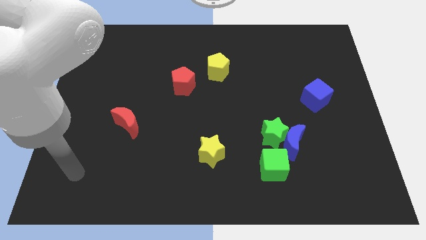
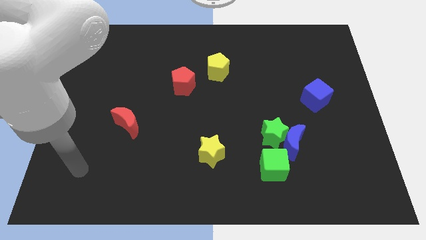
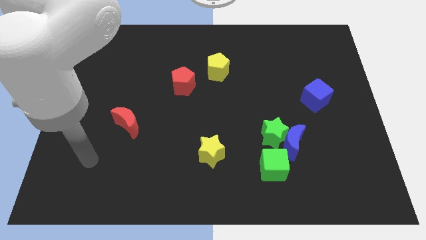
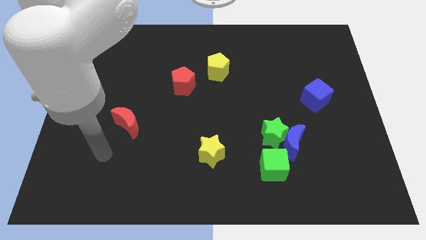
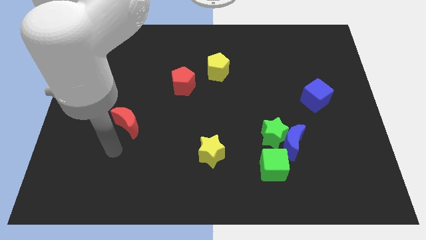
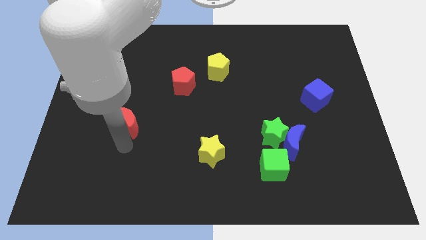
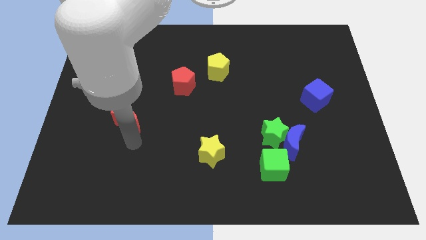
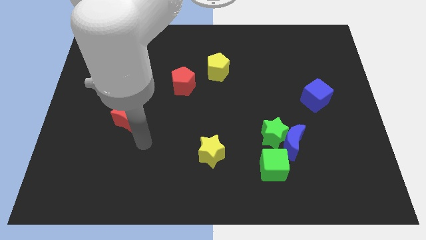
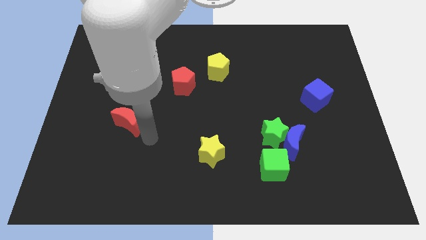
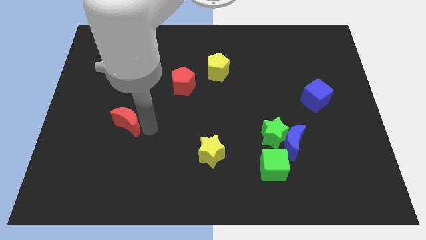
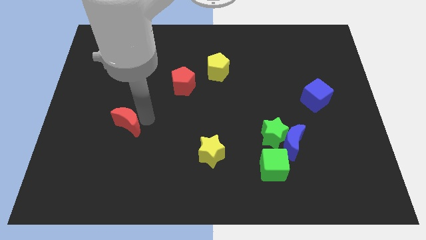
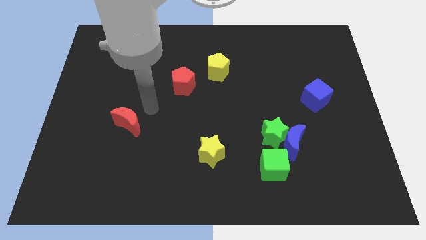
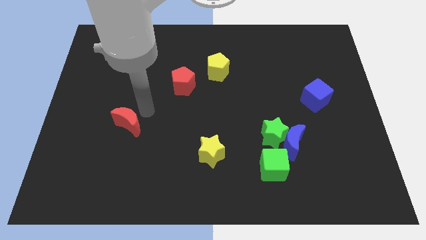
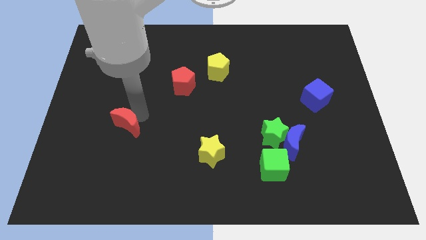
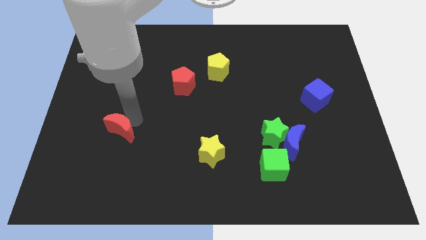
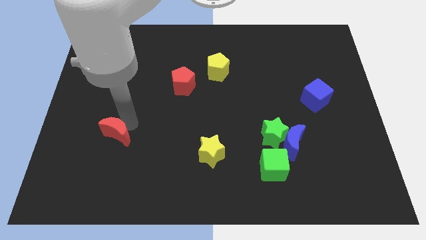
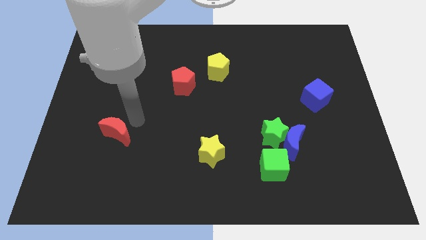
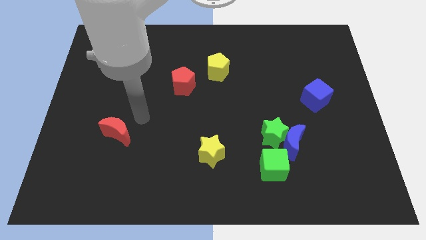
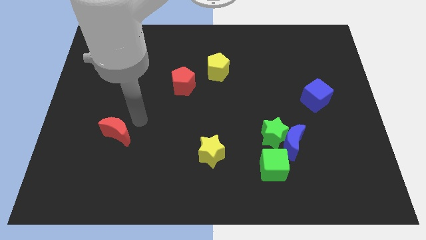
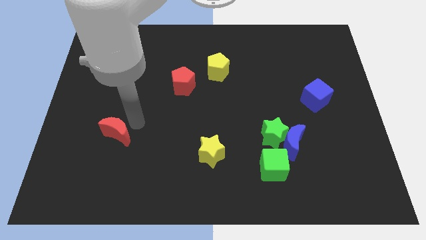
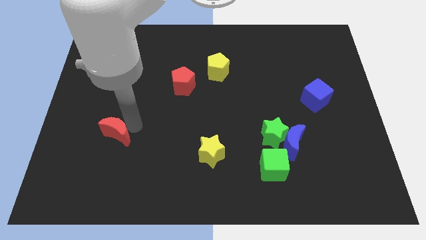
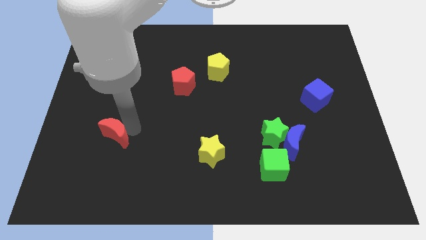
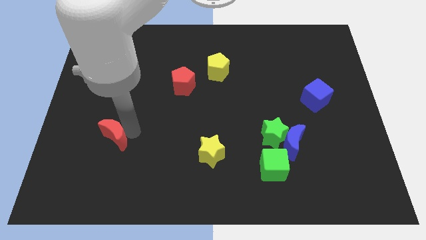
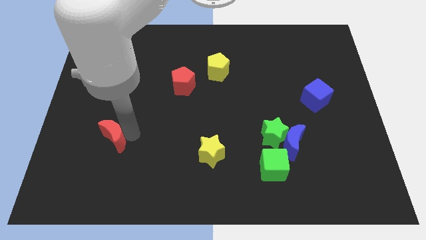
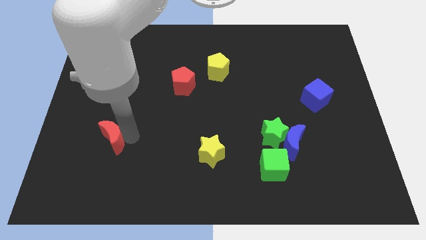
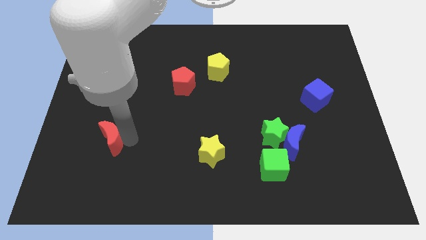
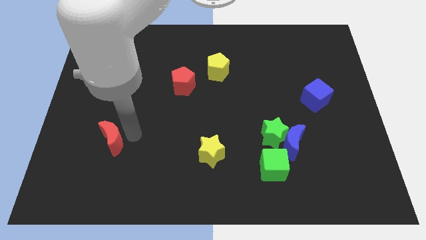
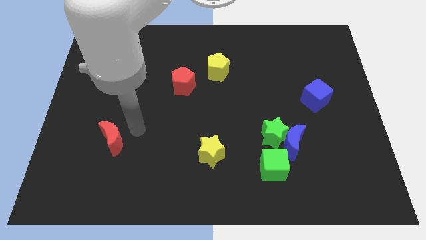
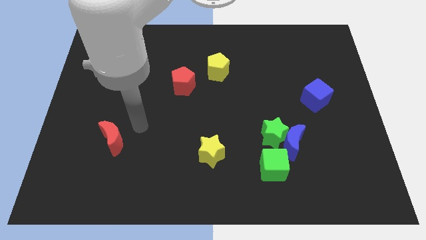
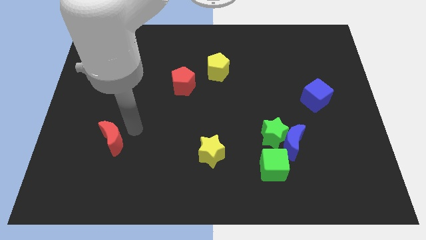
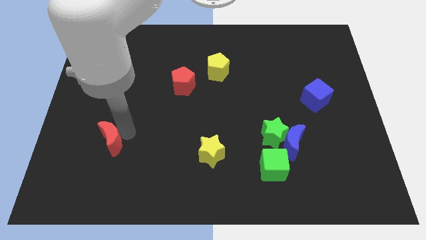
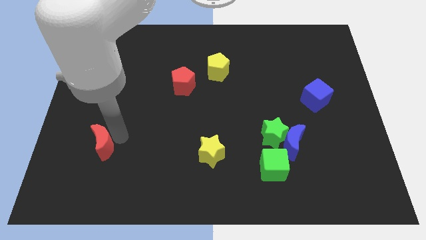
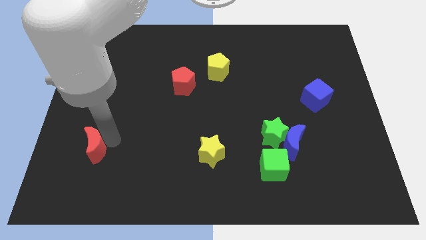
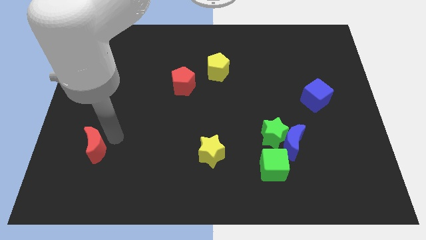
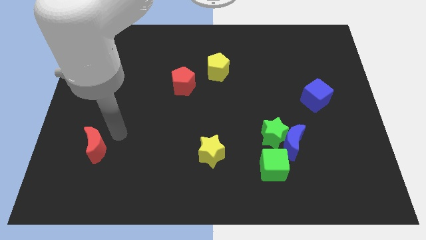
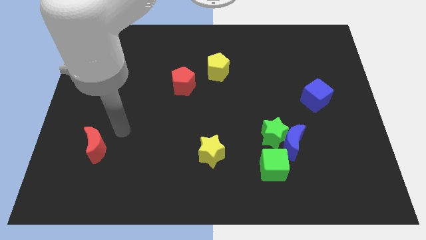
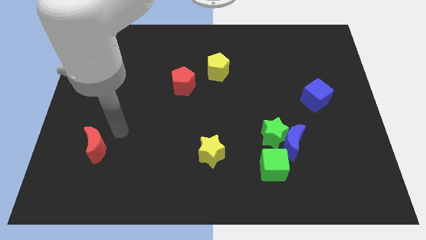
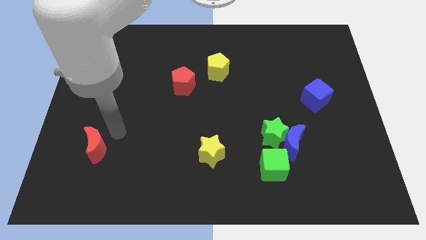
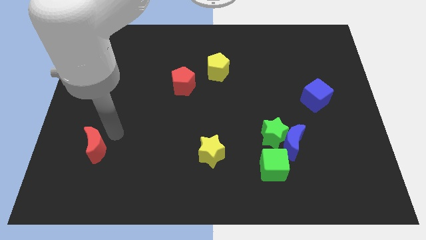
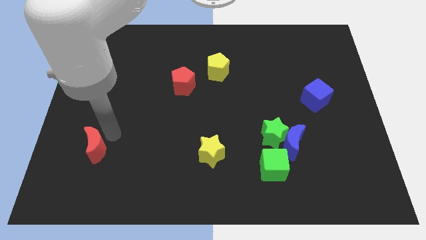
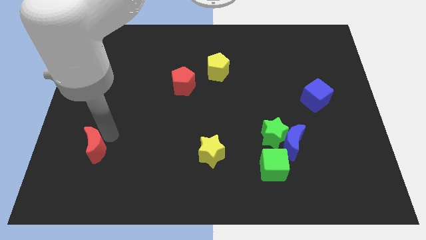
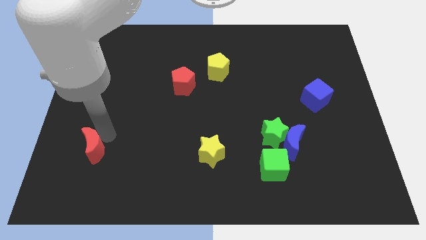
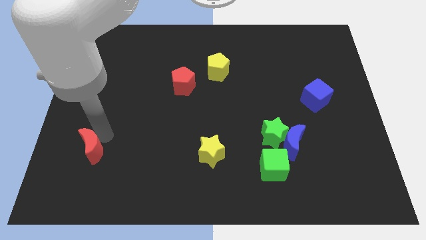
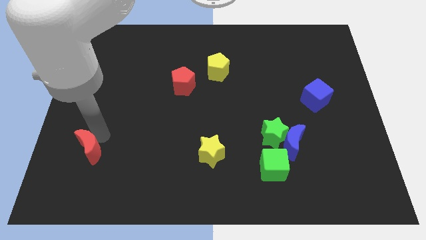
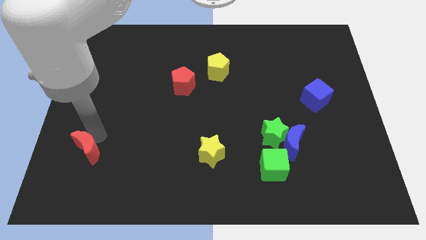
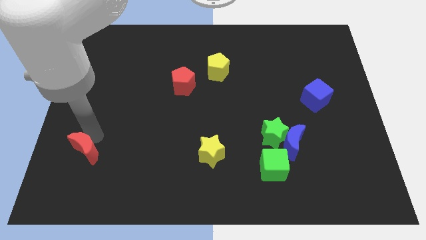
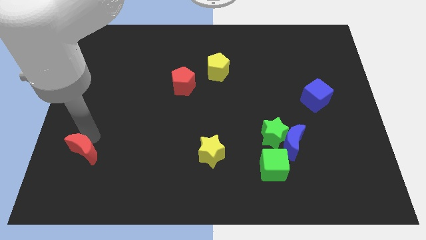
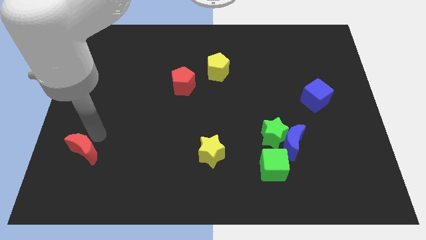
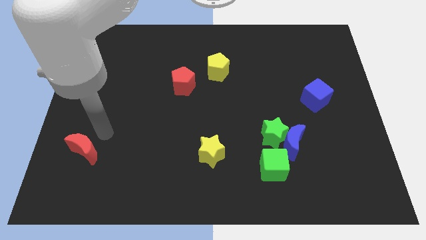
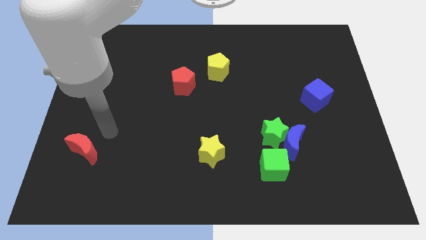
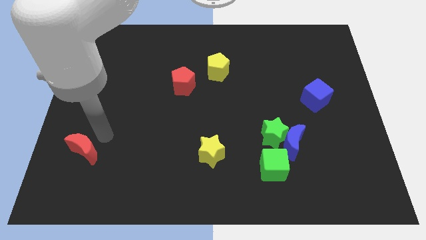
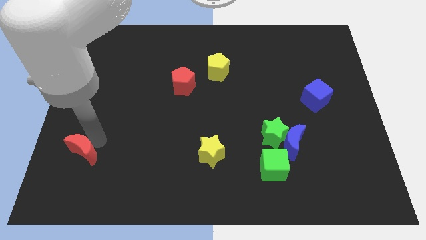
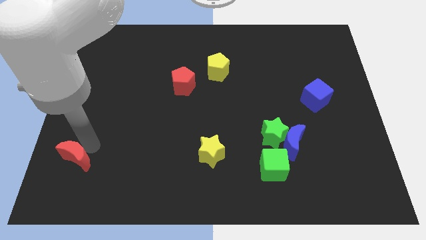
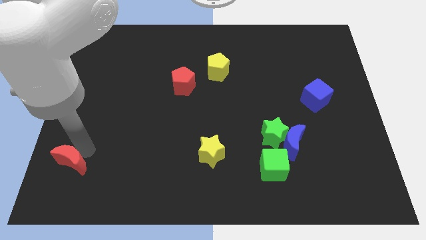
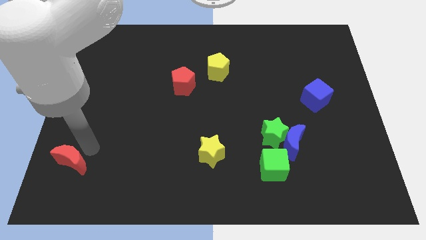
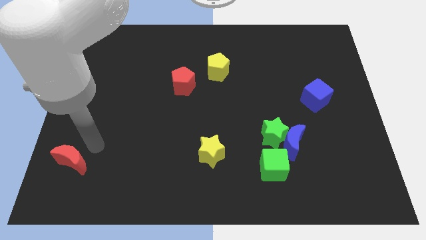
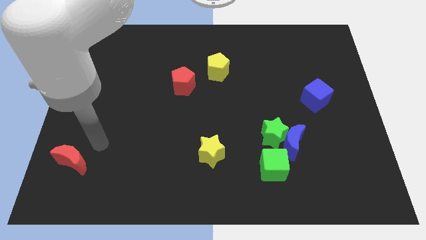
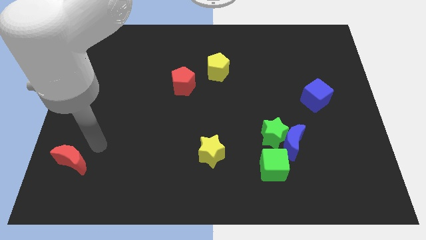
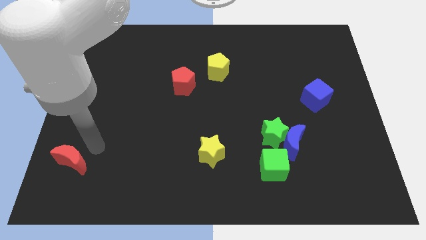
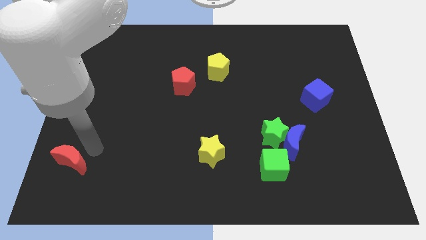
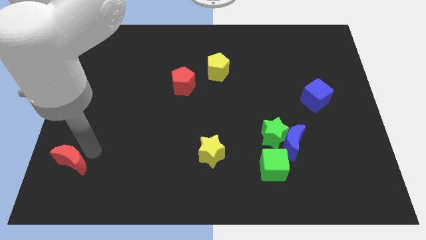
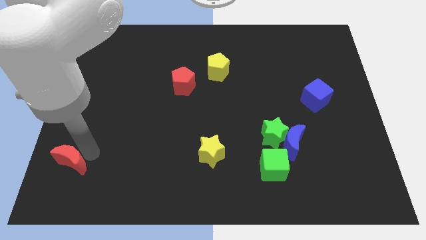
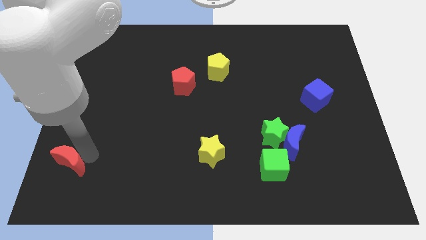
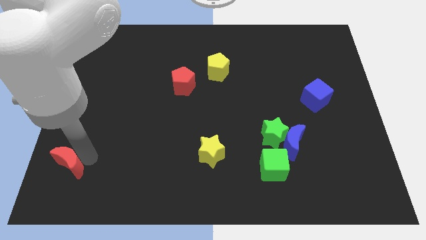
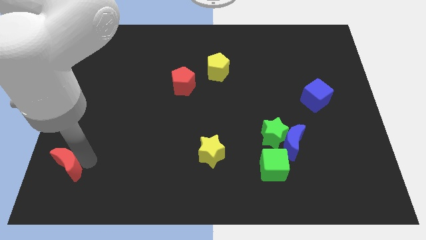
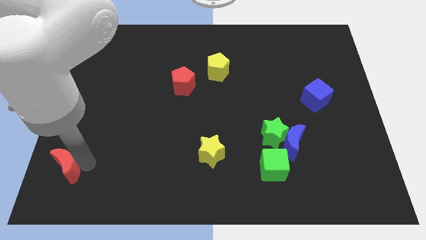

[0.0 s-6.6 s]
move the red moon to the bottom left corner
